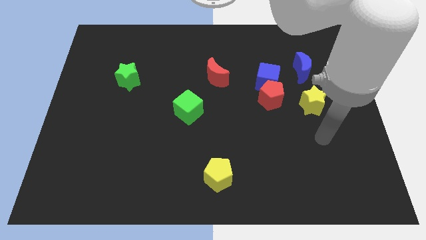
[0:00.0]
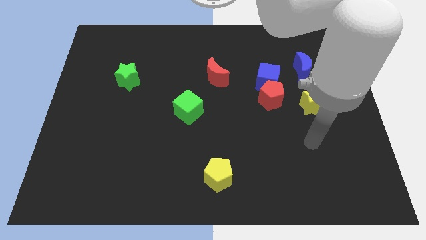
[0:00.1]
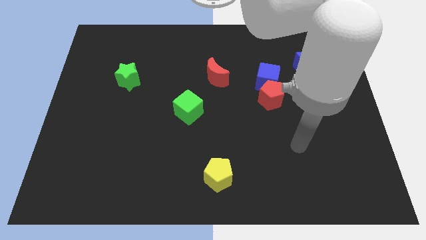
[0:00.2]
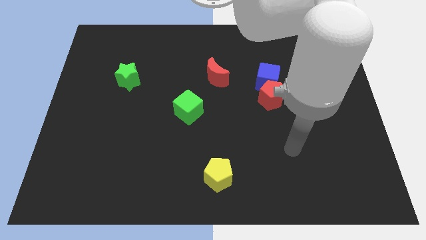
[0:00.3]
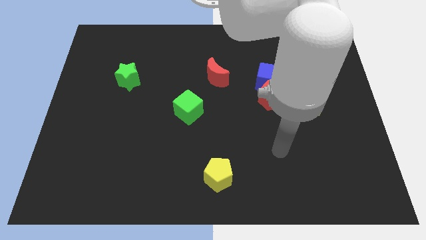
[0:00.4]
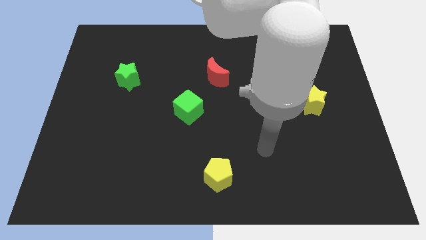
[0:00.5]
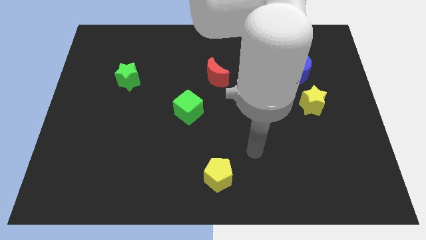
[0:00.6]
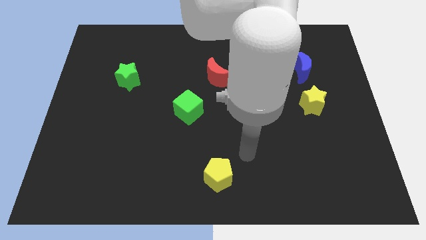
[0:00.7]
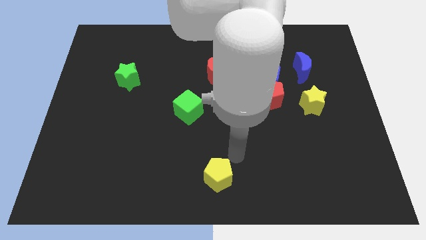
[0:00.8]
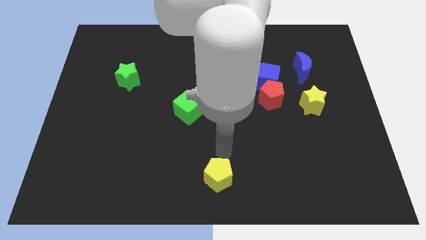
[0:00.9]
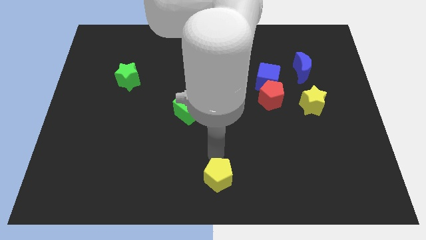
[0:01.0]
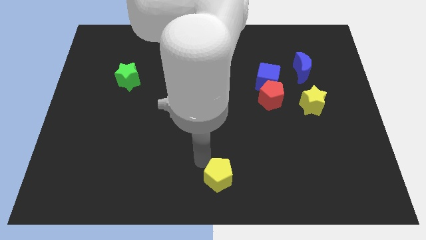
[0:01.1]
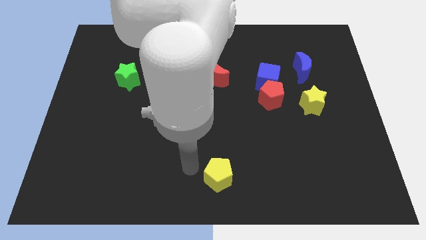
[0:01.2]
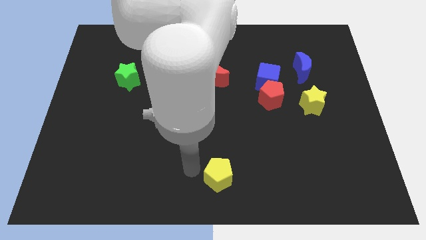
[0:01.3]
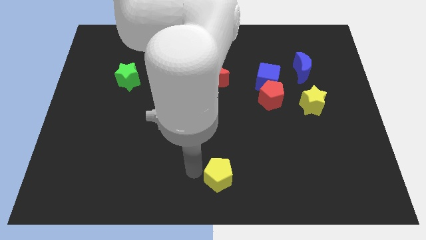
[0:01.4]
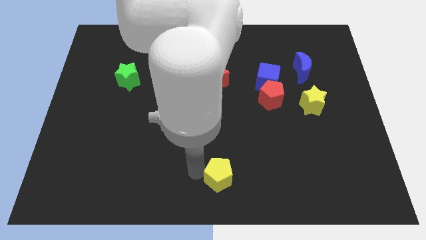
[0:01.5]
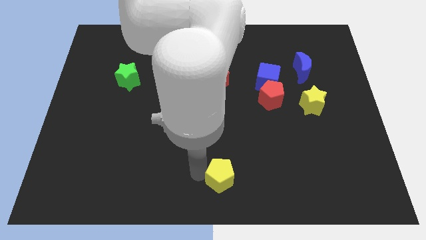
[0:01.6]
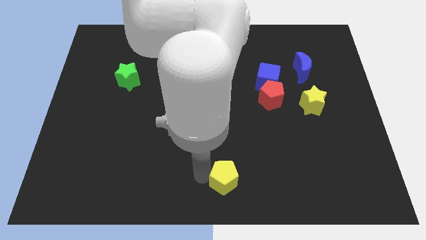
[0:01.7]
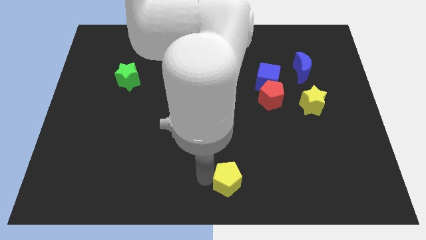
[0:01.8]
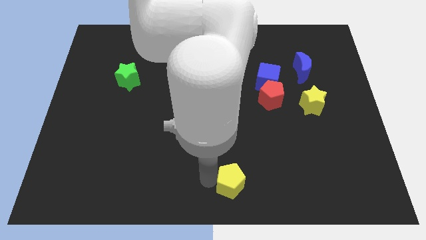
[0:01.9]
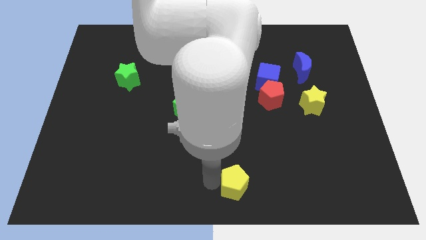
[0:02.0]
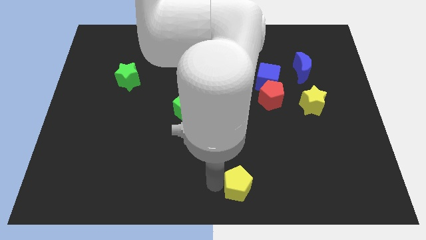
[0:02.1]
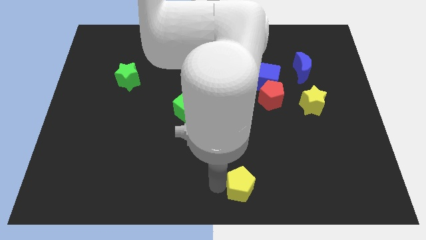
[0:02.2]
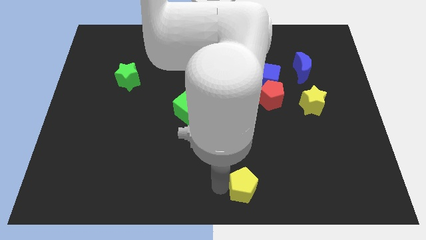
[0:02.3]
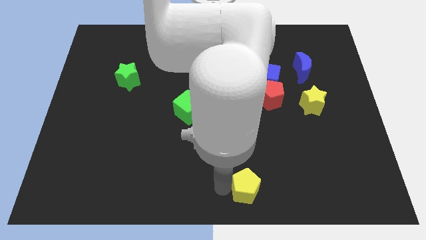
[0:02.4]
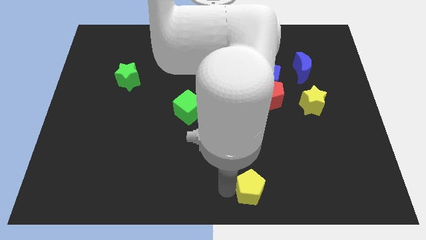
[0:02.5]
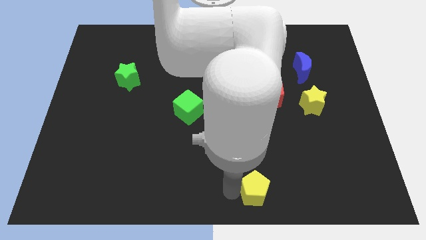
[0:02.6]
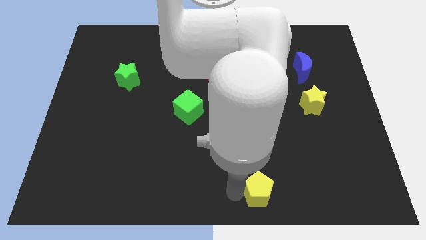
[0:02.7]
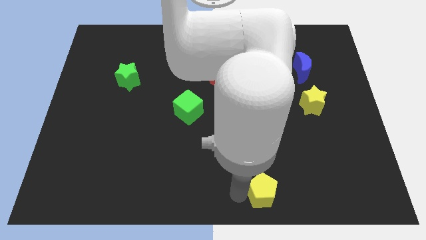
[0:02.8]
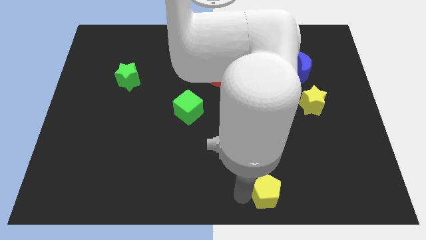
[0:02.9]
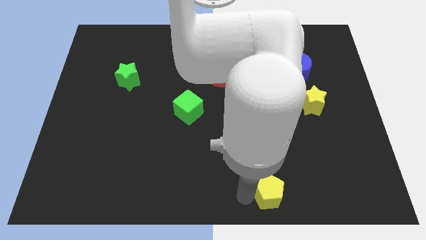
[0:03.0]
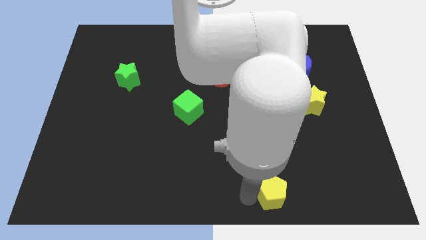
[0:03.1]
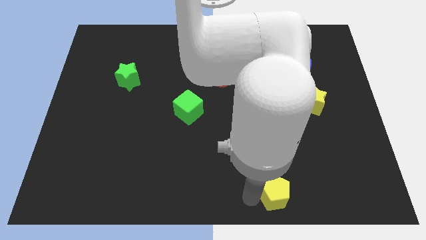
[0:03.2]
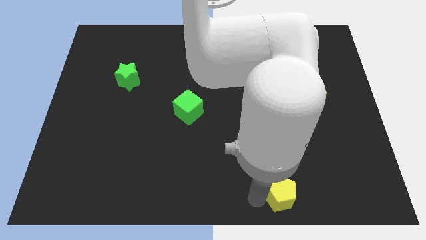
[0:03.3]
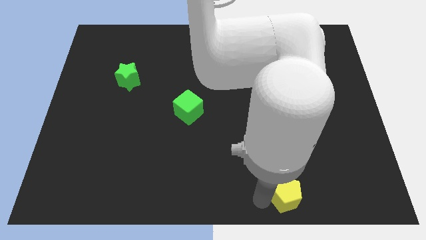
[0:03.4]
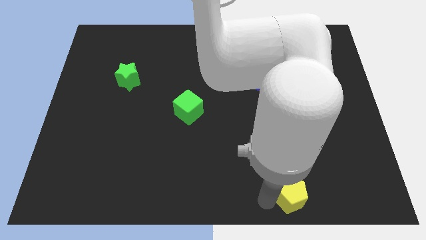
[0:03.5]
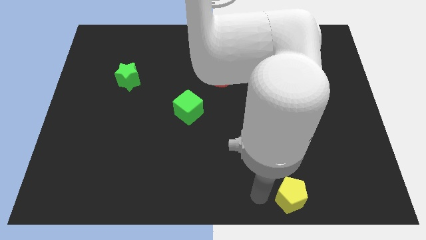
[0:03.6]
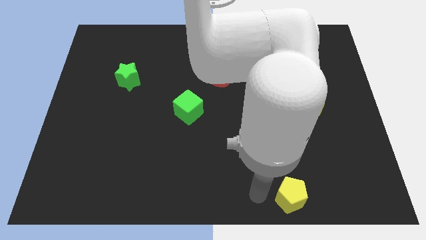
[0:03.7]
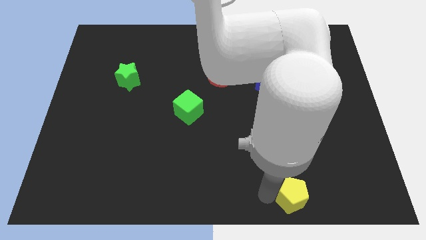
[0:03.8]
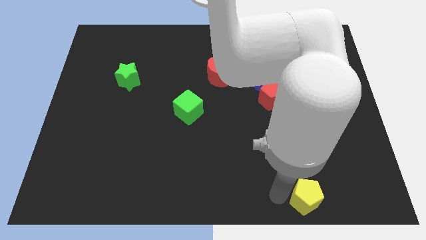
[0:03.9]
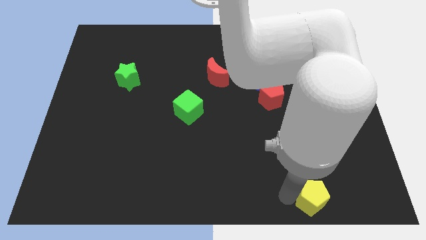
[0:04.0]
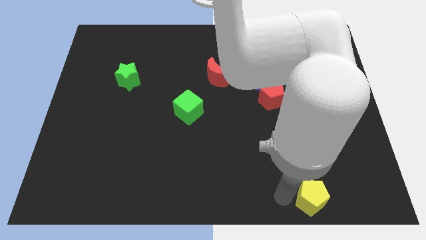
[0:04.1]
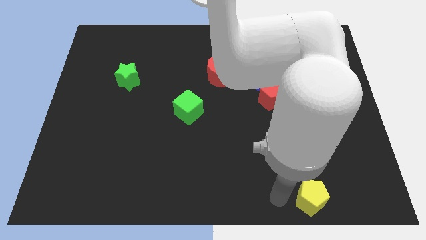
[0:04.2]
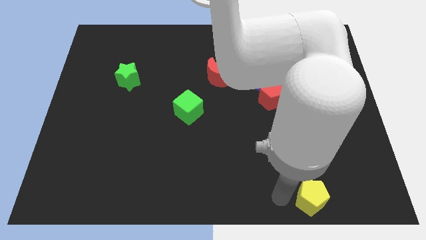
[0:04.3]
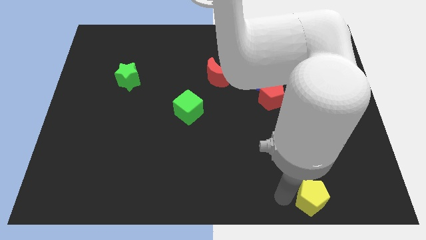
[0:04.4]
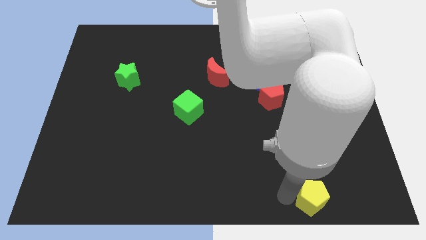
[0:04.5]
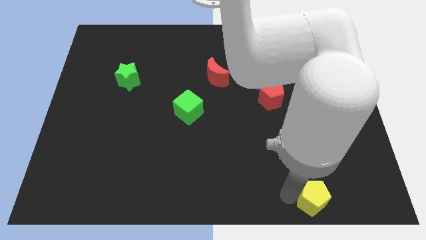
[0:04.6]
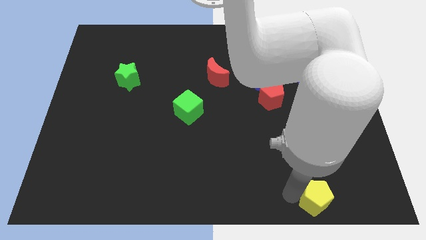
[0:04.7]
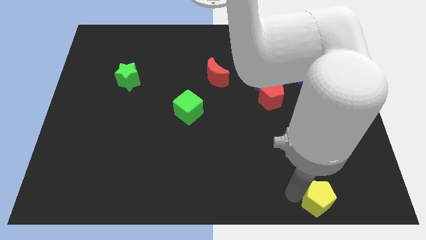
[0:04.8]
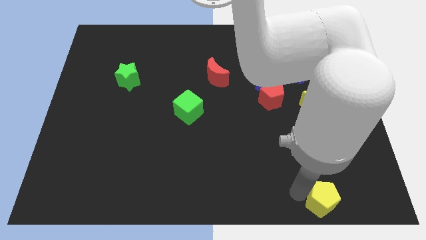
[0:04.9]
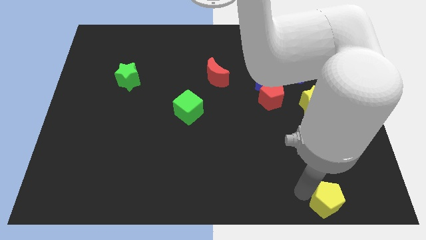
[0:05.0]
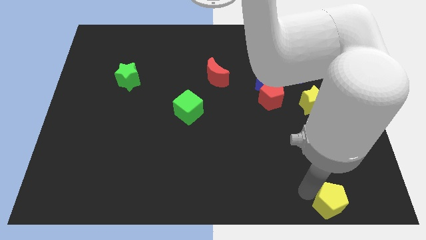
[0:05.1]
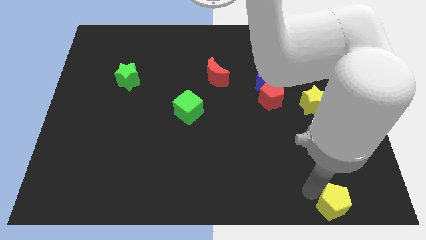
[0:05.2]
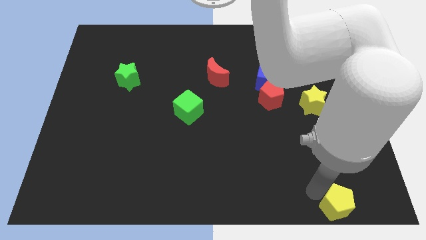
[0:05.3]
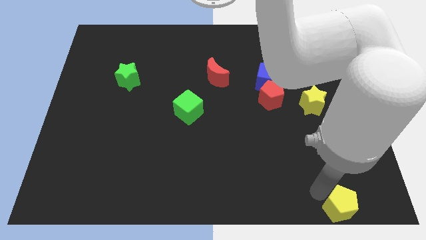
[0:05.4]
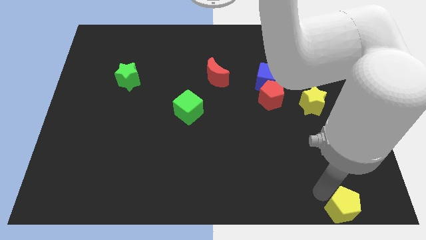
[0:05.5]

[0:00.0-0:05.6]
slide the yellow pentagon to the bottom right of the board
